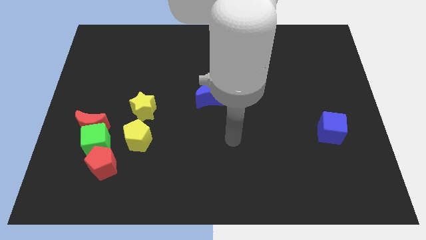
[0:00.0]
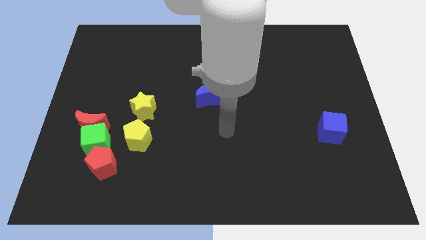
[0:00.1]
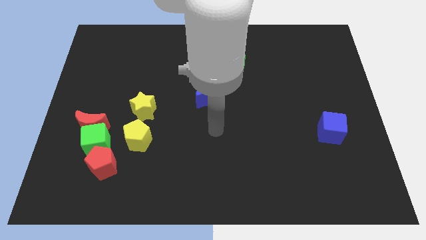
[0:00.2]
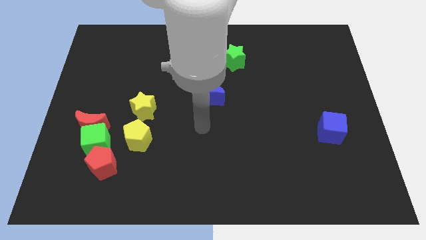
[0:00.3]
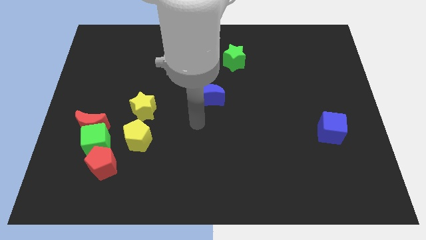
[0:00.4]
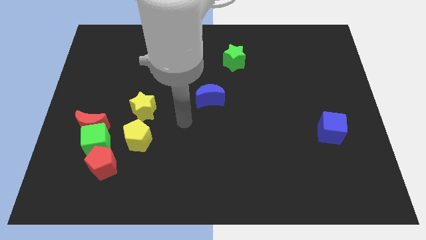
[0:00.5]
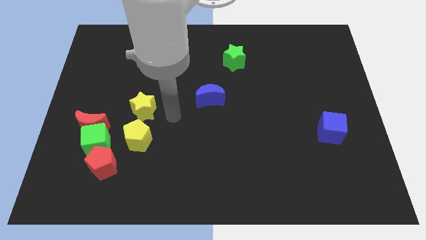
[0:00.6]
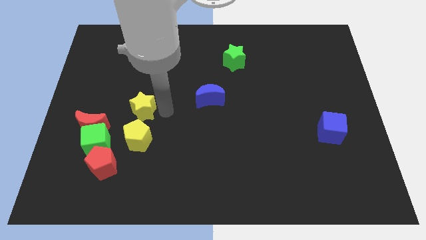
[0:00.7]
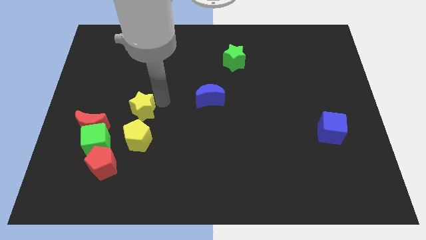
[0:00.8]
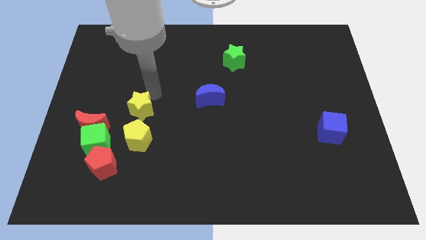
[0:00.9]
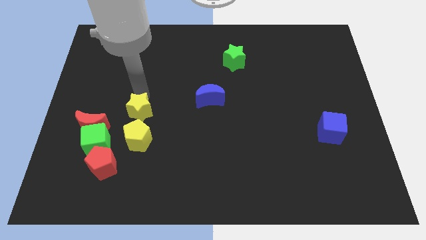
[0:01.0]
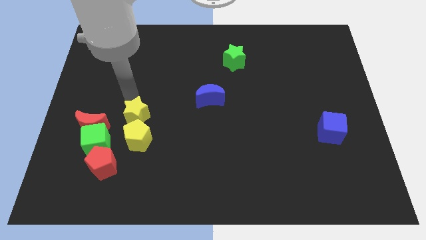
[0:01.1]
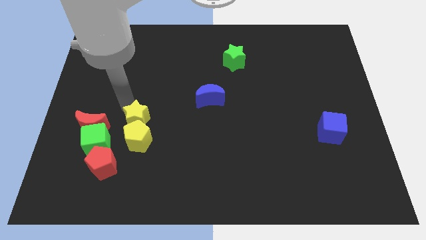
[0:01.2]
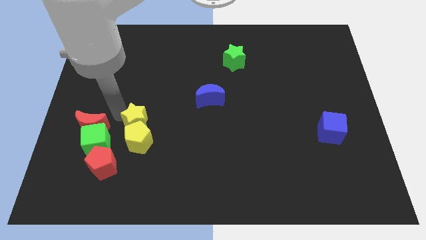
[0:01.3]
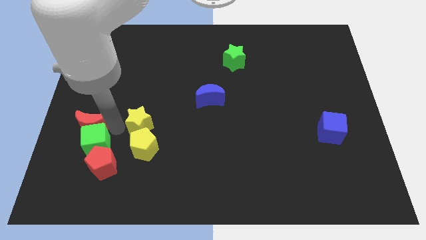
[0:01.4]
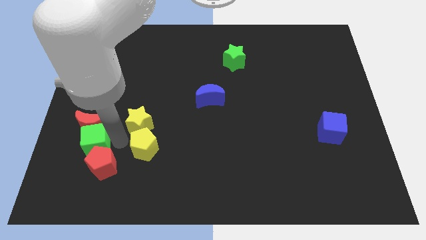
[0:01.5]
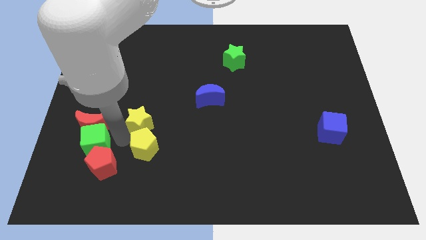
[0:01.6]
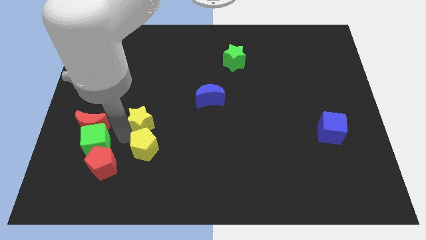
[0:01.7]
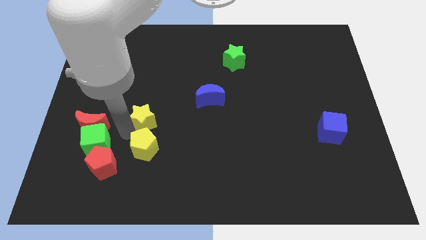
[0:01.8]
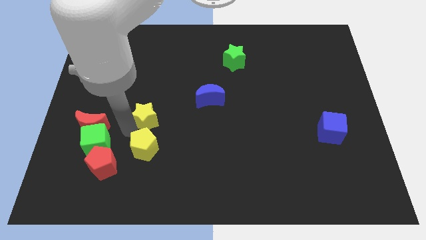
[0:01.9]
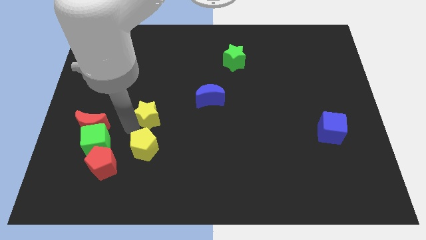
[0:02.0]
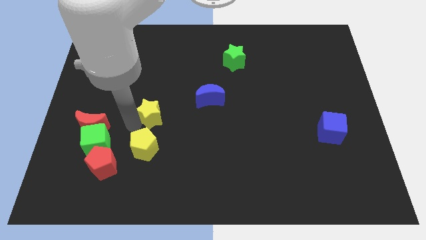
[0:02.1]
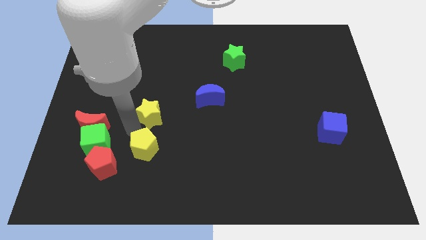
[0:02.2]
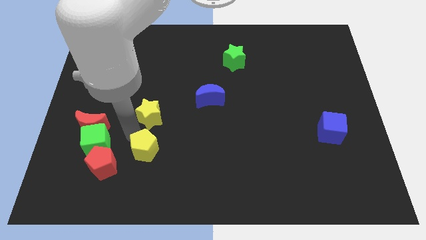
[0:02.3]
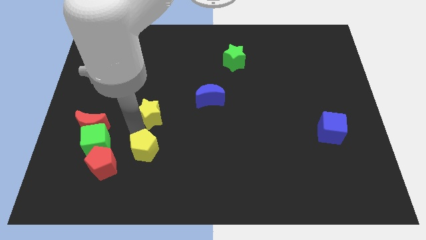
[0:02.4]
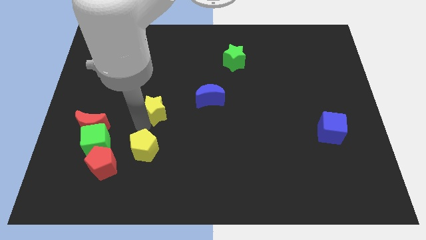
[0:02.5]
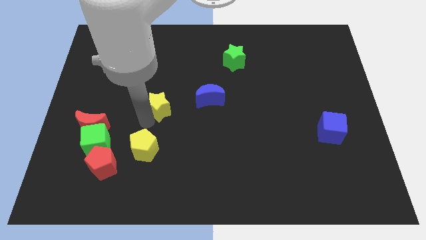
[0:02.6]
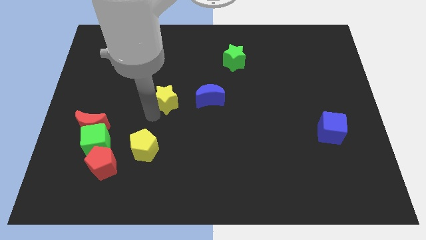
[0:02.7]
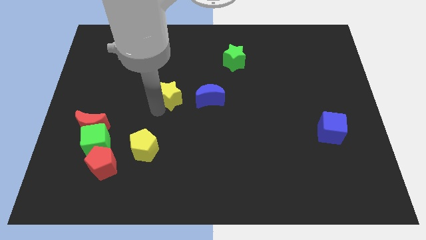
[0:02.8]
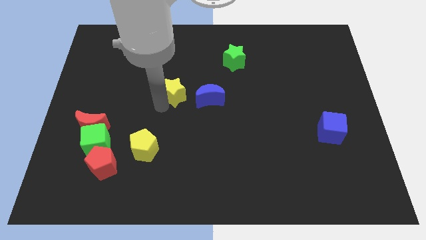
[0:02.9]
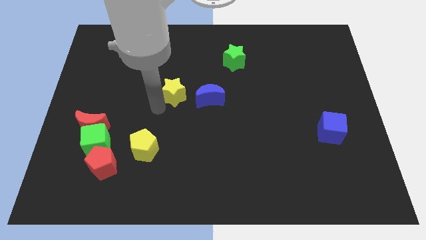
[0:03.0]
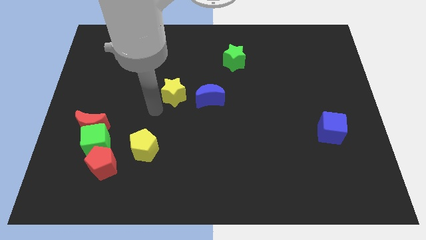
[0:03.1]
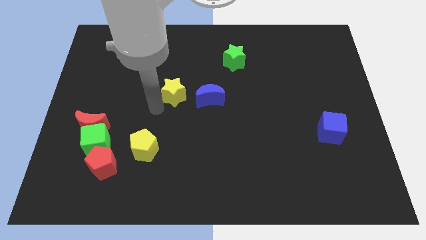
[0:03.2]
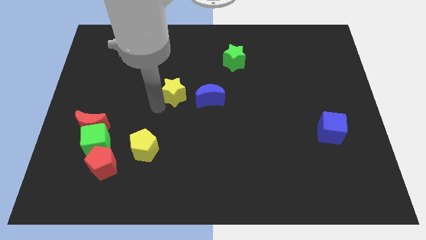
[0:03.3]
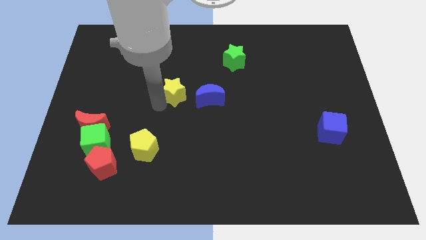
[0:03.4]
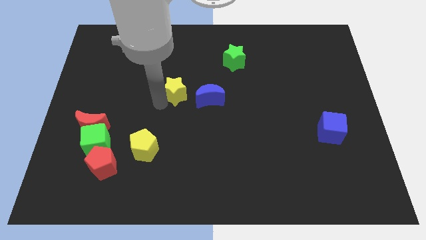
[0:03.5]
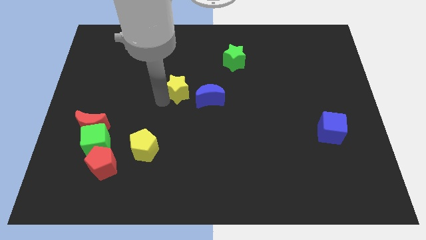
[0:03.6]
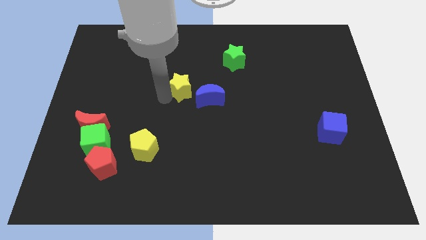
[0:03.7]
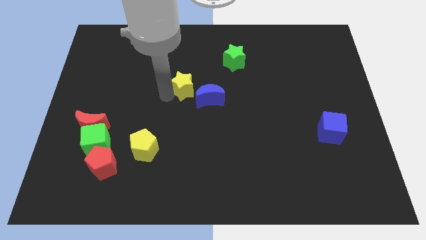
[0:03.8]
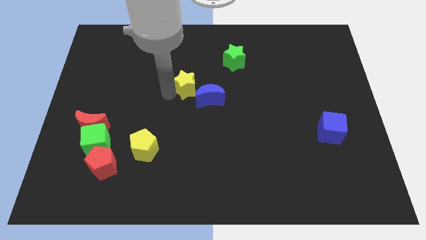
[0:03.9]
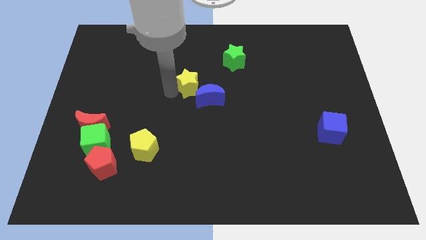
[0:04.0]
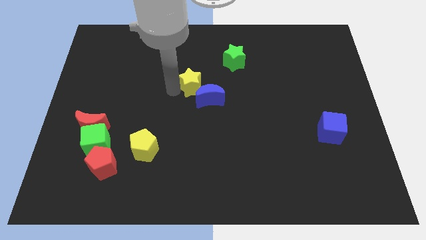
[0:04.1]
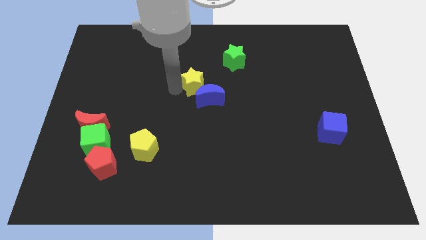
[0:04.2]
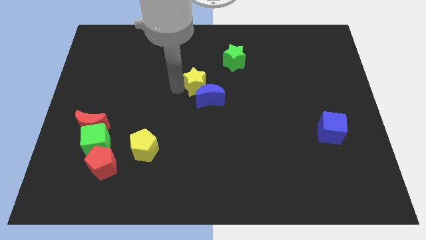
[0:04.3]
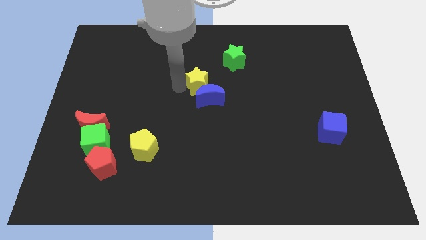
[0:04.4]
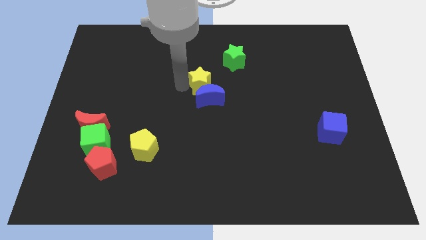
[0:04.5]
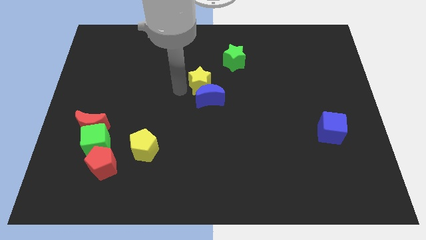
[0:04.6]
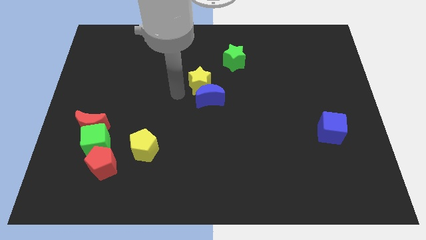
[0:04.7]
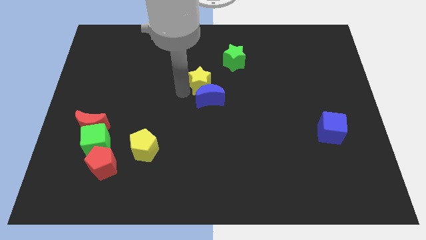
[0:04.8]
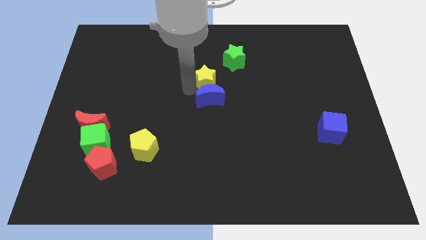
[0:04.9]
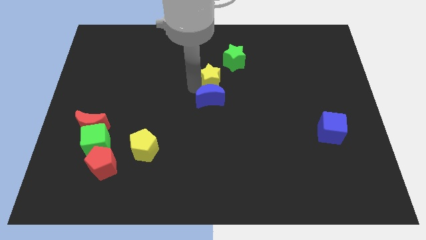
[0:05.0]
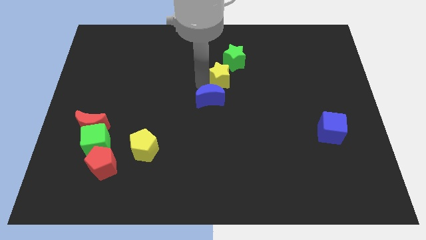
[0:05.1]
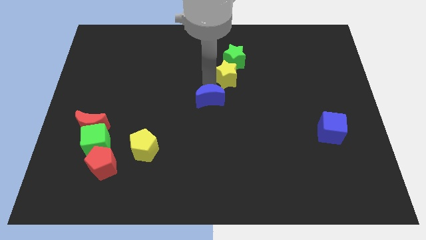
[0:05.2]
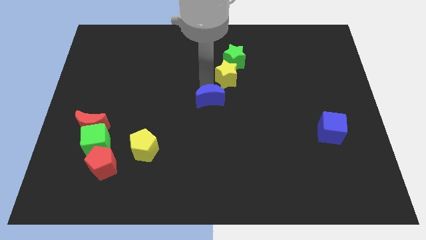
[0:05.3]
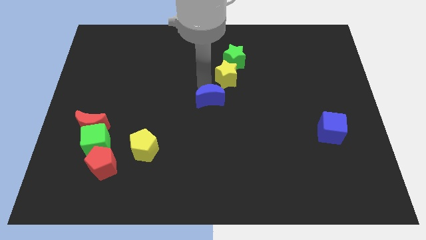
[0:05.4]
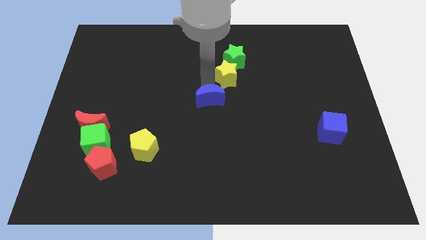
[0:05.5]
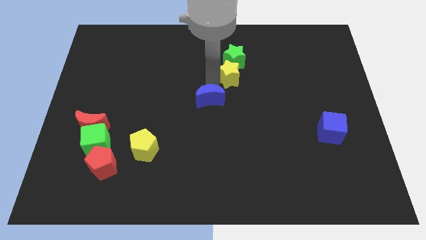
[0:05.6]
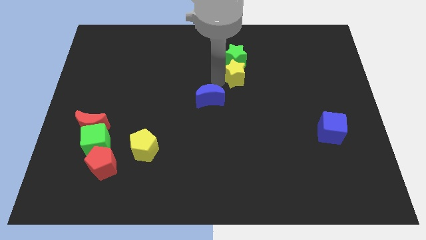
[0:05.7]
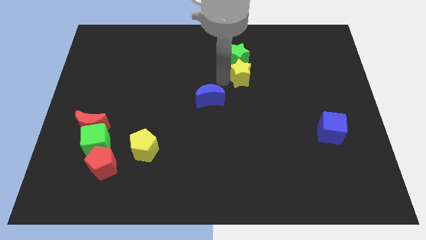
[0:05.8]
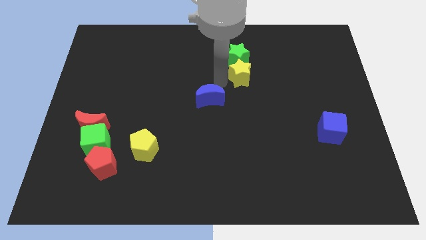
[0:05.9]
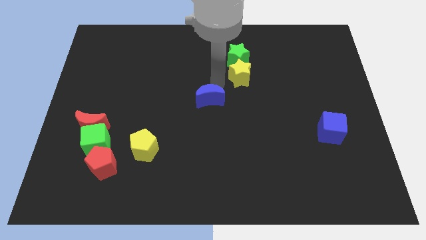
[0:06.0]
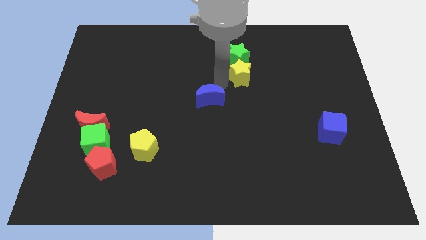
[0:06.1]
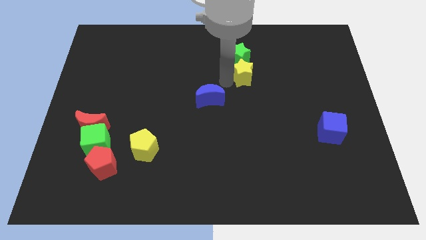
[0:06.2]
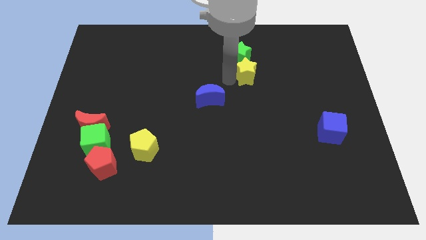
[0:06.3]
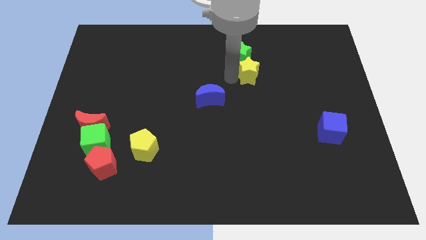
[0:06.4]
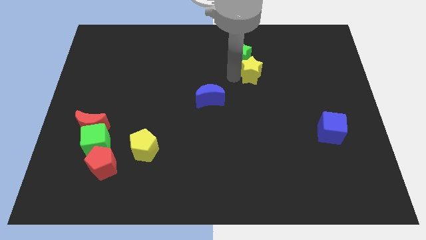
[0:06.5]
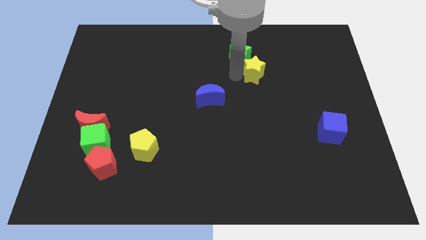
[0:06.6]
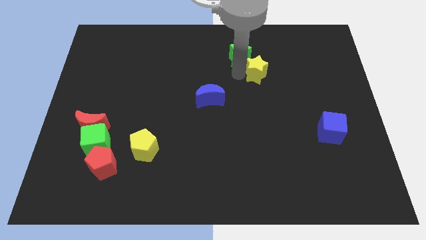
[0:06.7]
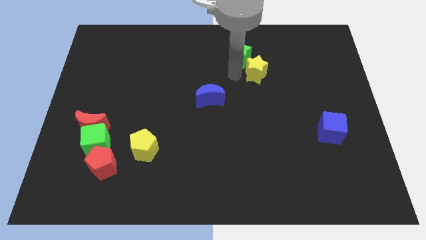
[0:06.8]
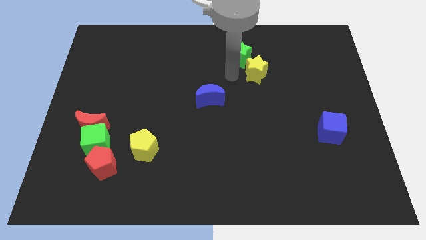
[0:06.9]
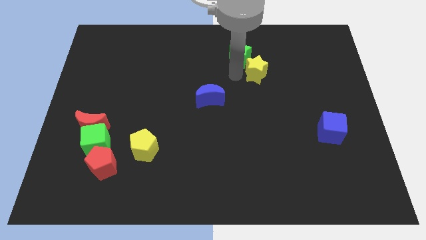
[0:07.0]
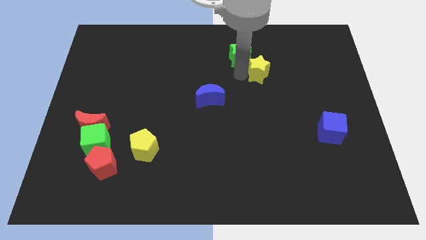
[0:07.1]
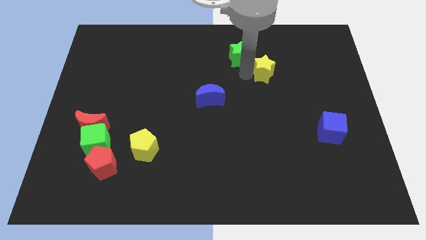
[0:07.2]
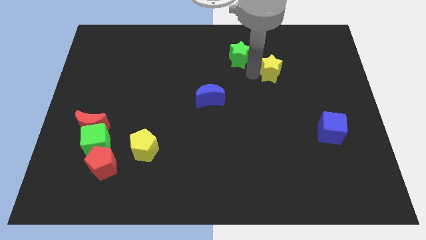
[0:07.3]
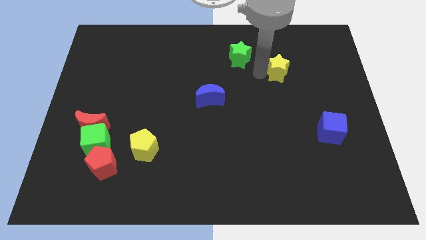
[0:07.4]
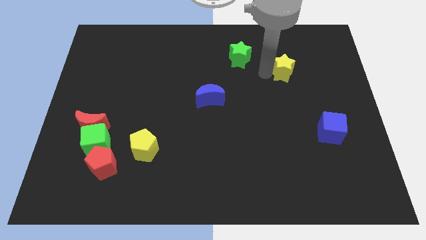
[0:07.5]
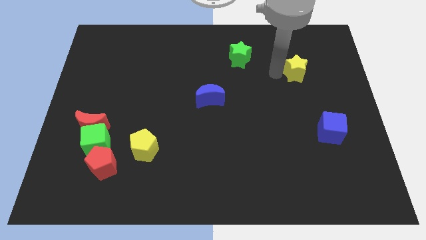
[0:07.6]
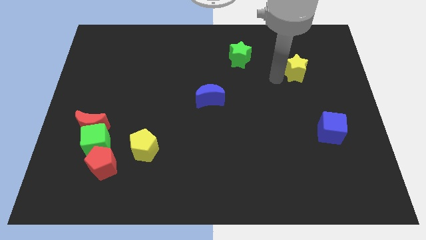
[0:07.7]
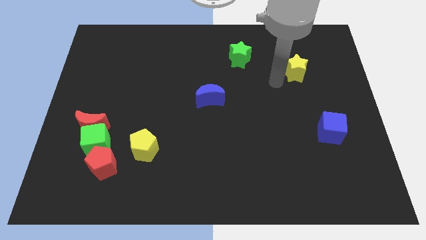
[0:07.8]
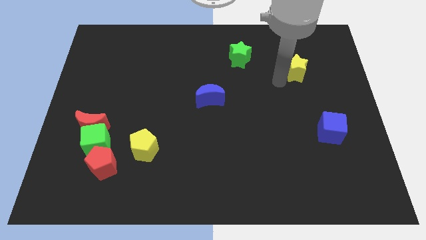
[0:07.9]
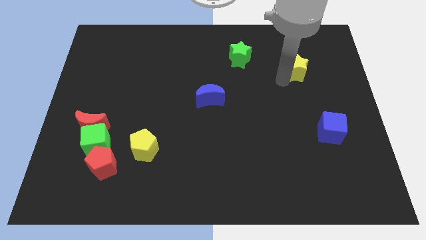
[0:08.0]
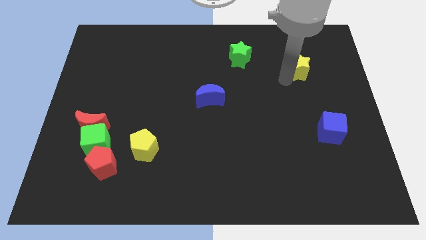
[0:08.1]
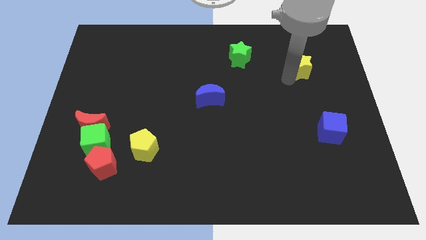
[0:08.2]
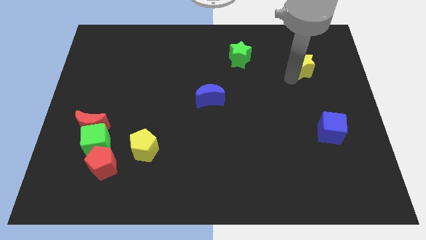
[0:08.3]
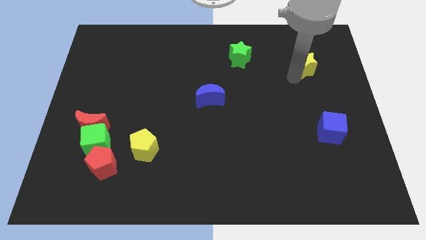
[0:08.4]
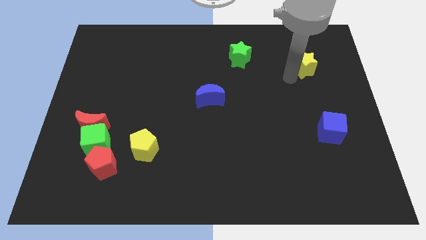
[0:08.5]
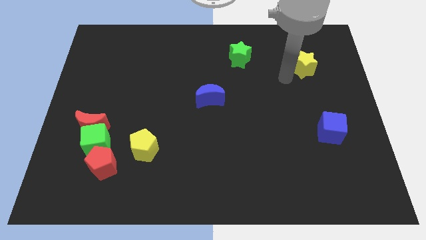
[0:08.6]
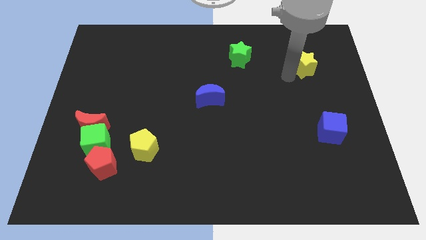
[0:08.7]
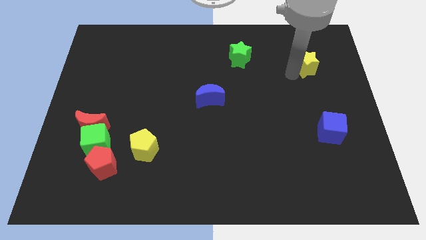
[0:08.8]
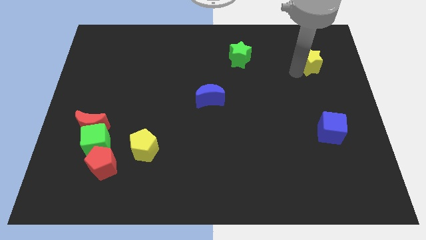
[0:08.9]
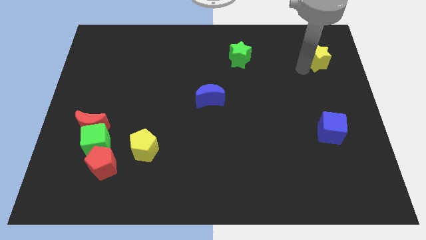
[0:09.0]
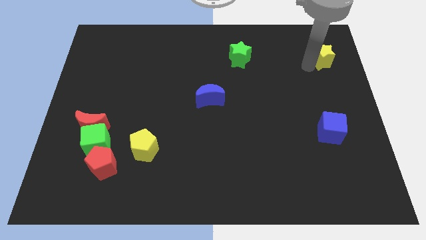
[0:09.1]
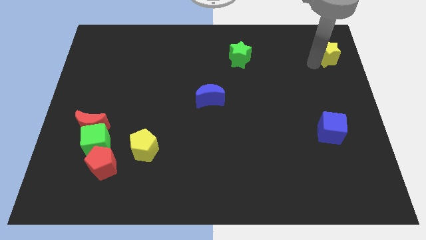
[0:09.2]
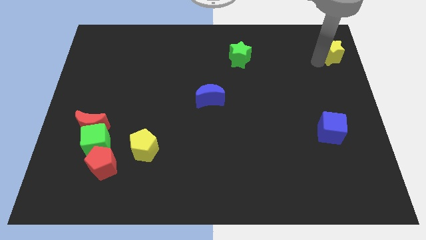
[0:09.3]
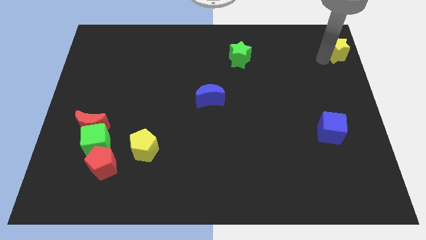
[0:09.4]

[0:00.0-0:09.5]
push the yellow star to the top right of the board
